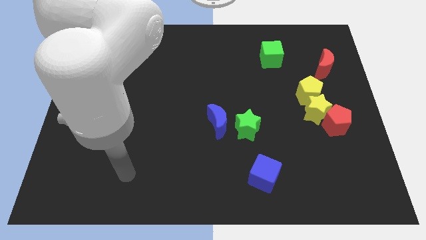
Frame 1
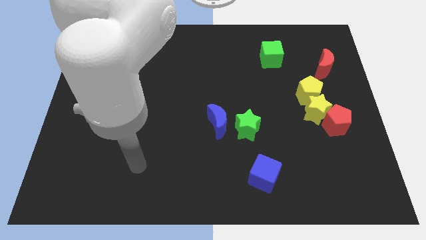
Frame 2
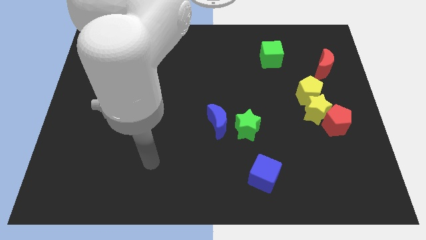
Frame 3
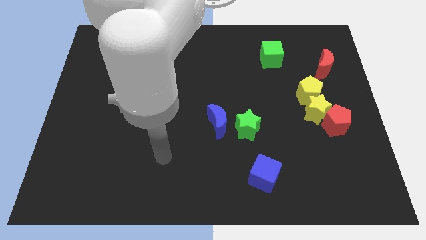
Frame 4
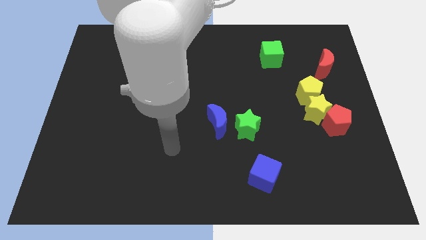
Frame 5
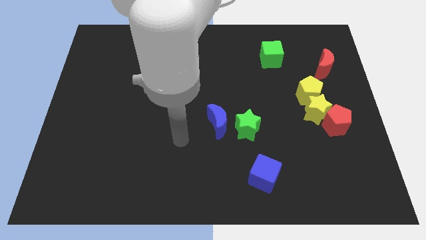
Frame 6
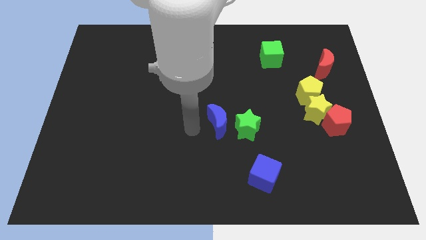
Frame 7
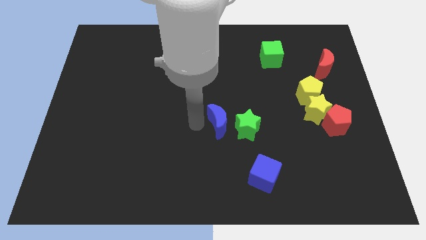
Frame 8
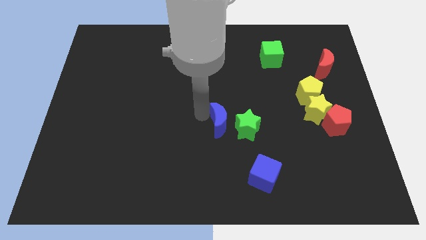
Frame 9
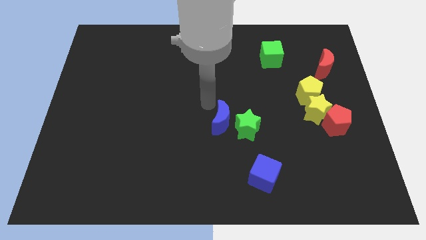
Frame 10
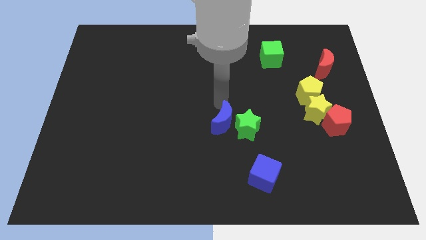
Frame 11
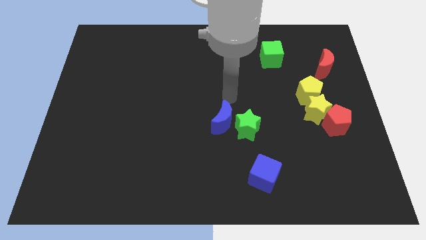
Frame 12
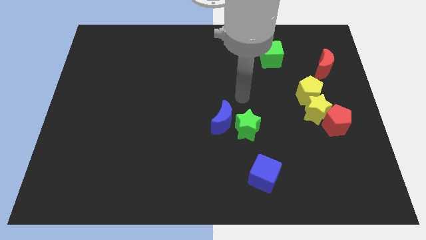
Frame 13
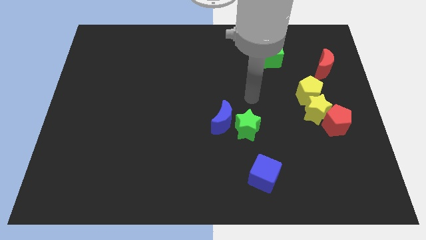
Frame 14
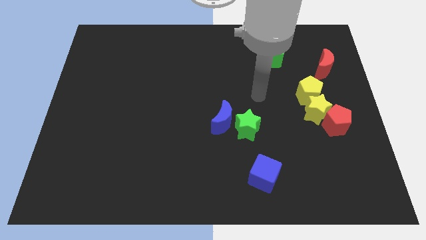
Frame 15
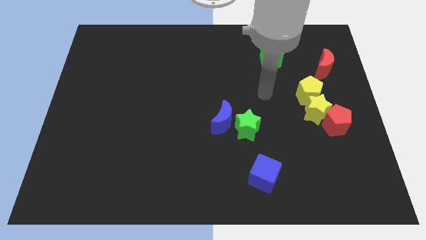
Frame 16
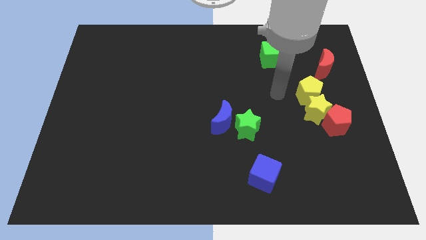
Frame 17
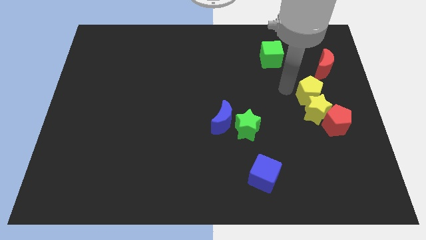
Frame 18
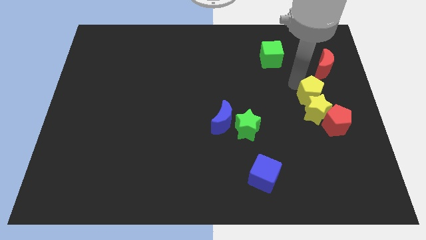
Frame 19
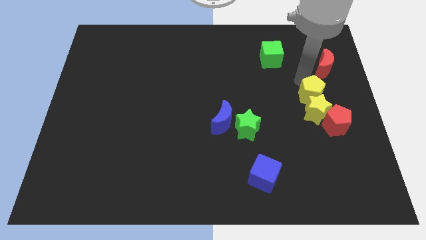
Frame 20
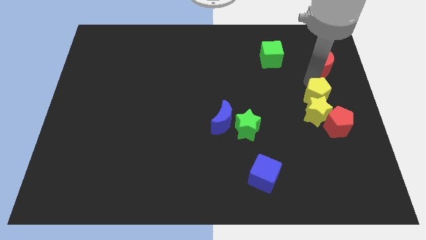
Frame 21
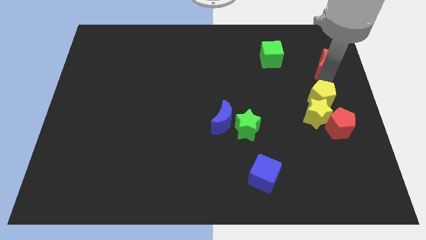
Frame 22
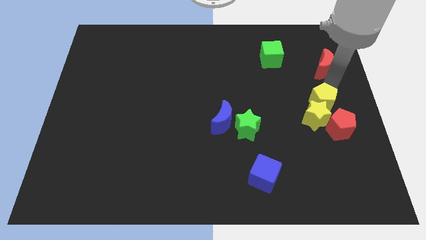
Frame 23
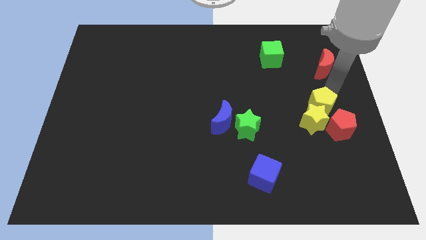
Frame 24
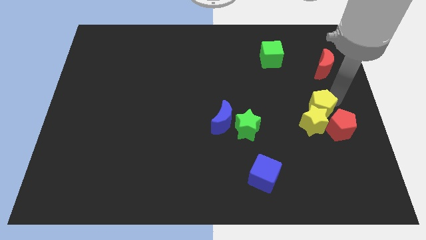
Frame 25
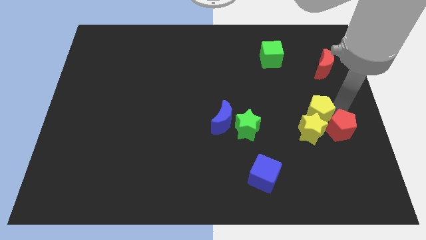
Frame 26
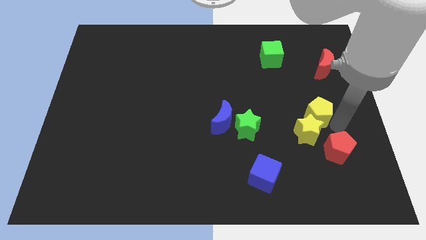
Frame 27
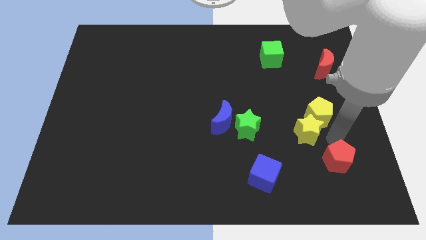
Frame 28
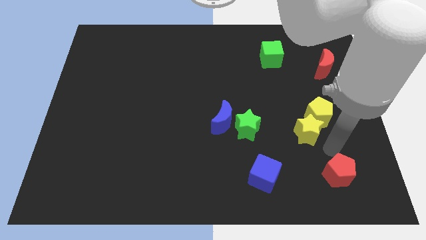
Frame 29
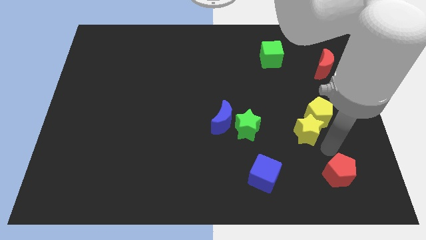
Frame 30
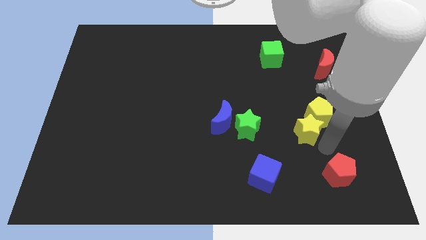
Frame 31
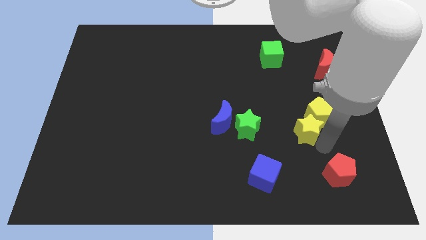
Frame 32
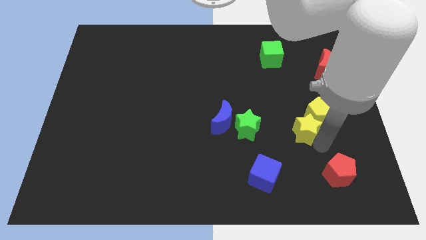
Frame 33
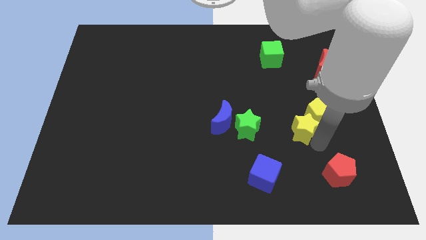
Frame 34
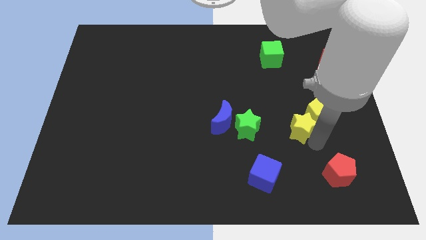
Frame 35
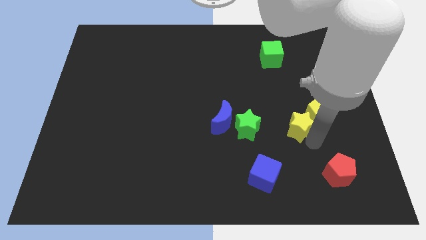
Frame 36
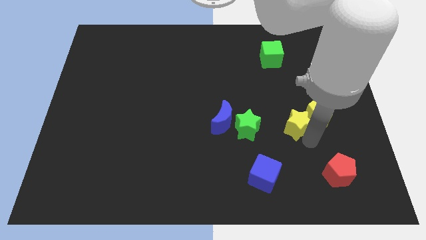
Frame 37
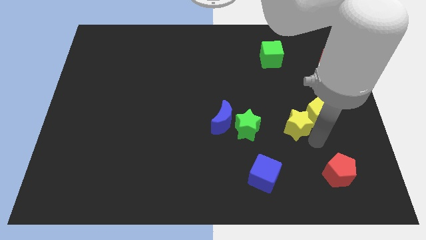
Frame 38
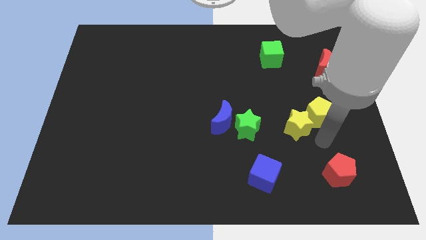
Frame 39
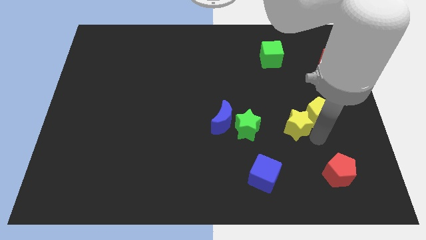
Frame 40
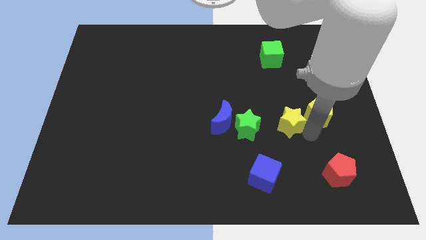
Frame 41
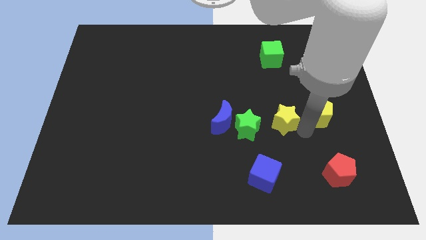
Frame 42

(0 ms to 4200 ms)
pull the yellow star apart from the yellow pentagon and red pentagon

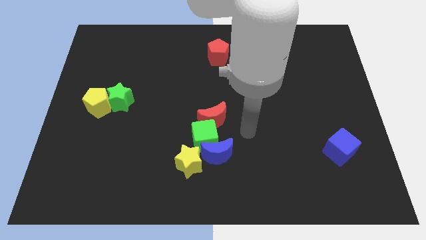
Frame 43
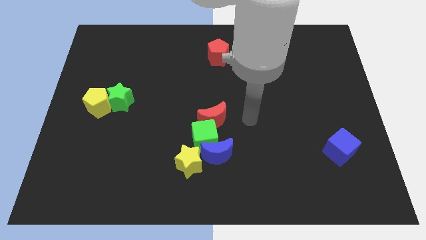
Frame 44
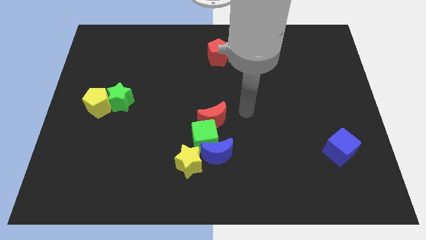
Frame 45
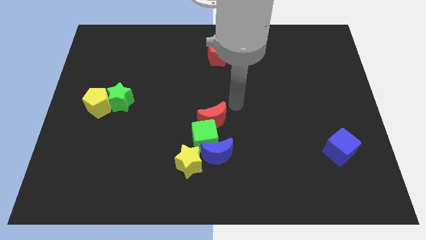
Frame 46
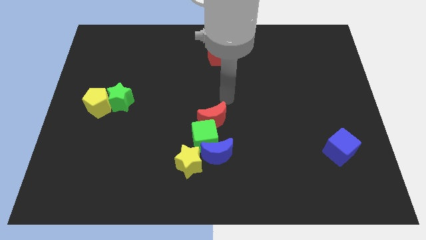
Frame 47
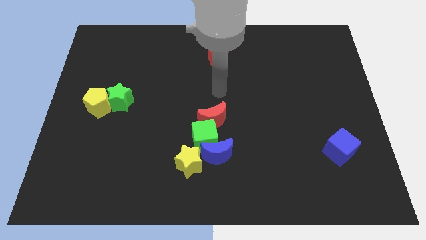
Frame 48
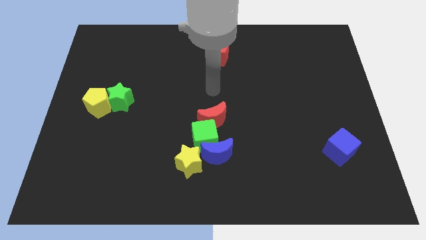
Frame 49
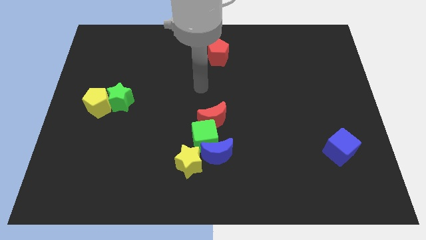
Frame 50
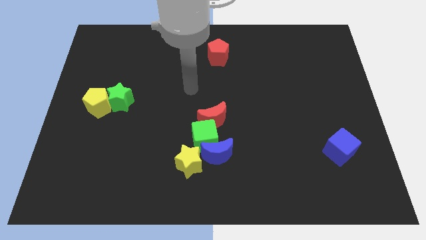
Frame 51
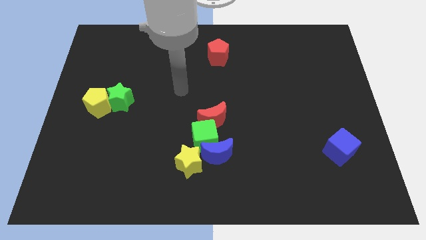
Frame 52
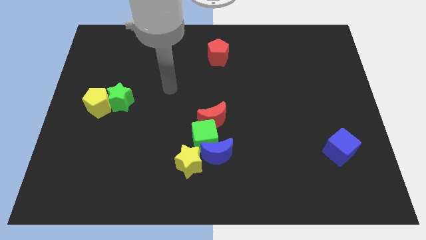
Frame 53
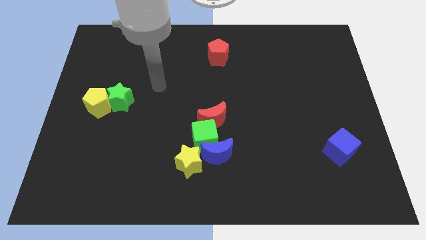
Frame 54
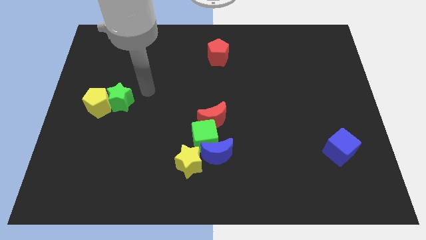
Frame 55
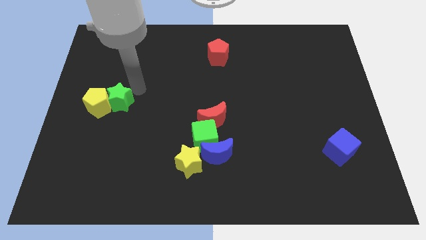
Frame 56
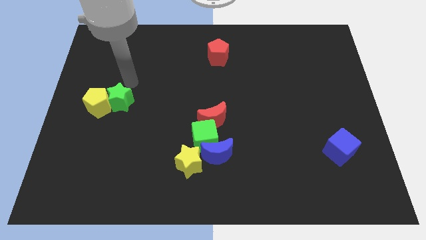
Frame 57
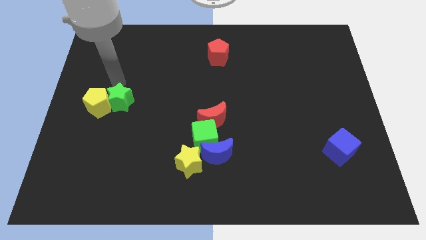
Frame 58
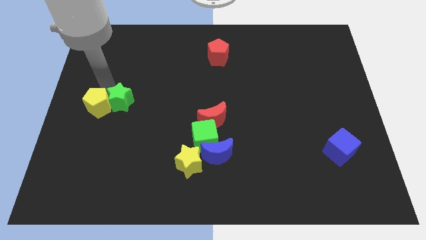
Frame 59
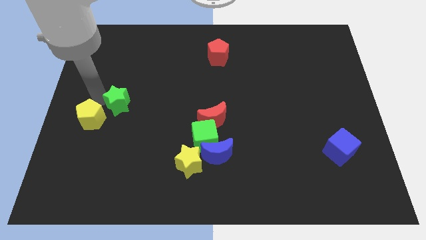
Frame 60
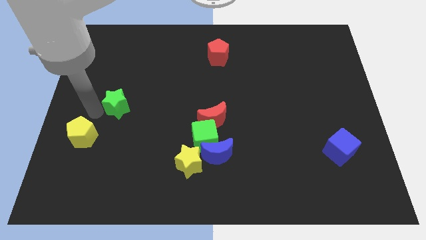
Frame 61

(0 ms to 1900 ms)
move the green star away from the yellow pentagon

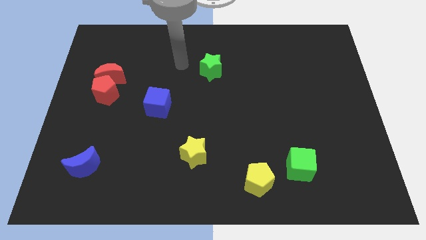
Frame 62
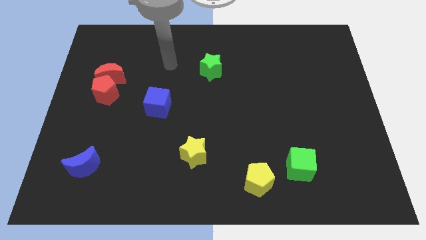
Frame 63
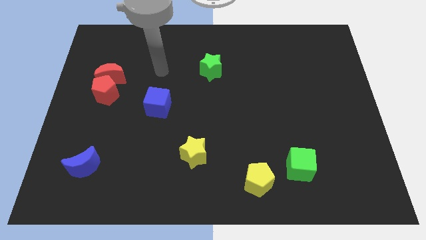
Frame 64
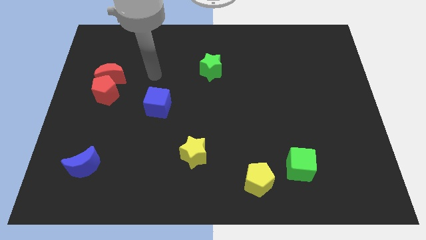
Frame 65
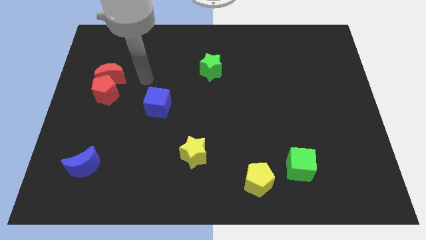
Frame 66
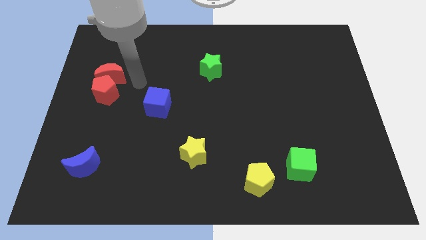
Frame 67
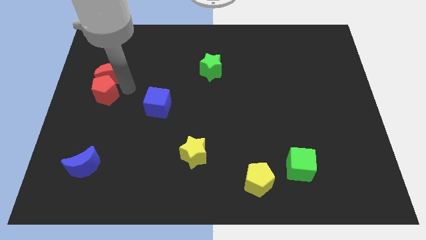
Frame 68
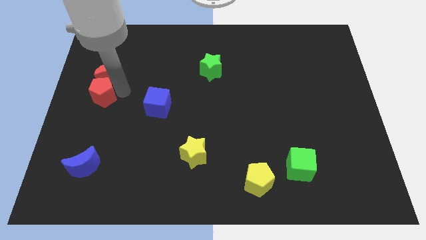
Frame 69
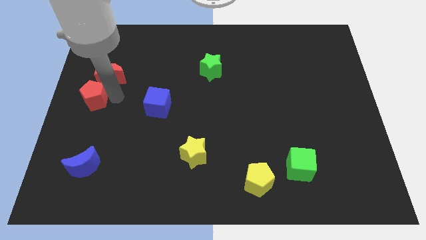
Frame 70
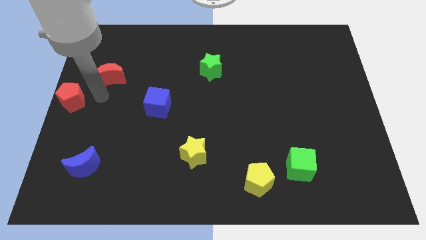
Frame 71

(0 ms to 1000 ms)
pull the red moon apart from the red pentagon

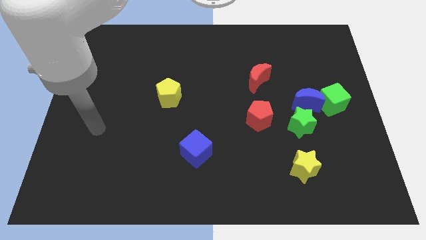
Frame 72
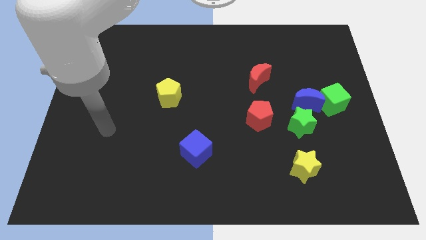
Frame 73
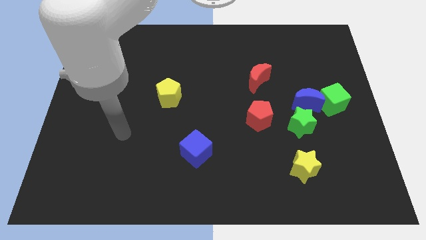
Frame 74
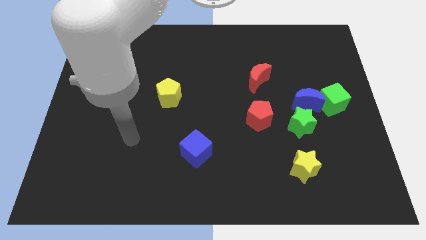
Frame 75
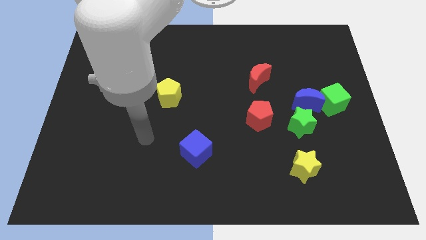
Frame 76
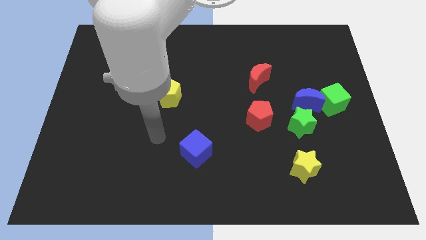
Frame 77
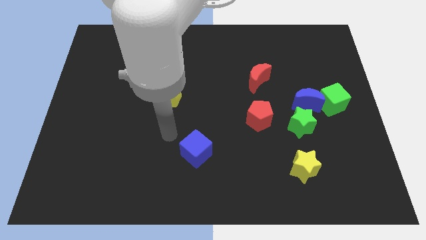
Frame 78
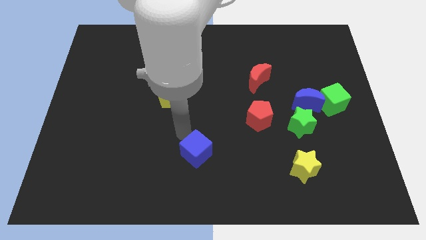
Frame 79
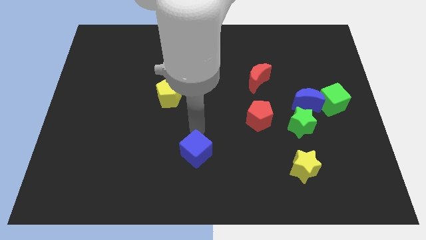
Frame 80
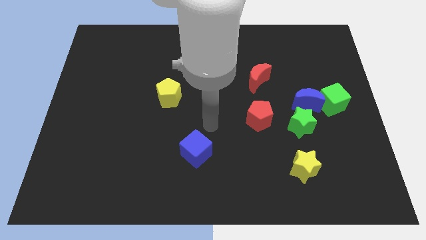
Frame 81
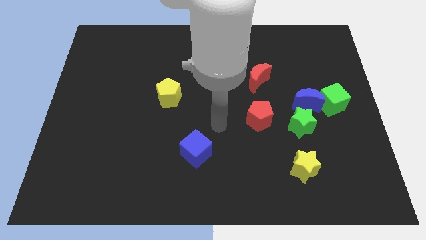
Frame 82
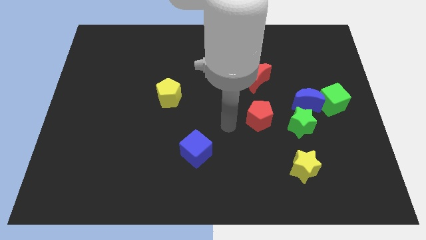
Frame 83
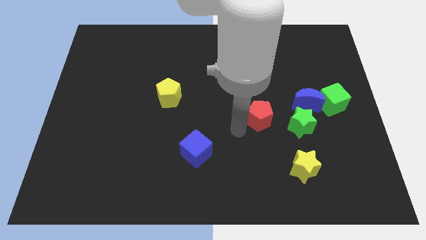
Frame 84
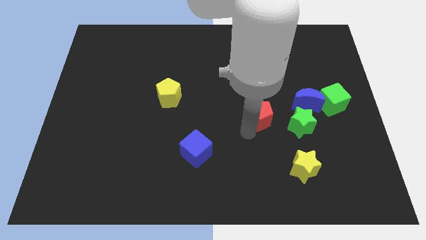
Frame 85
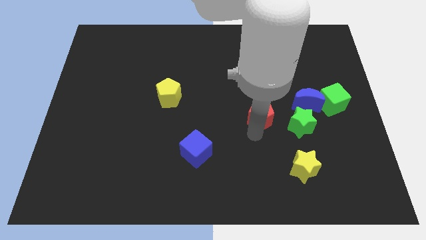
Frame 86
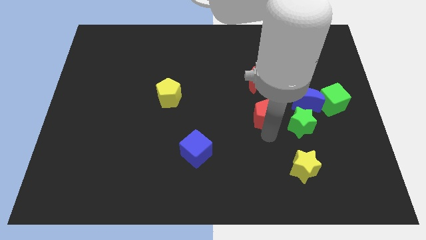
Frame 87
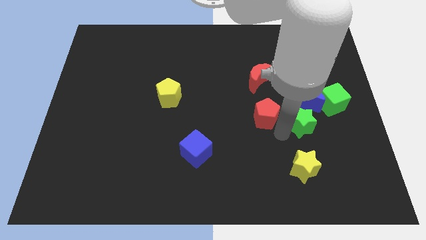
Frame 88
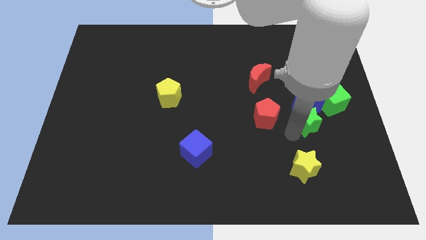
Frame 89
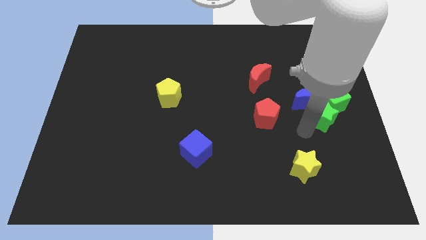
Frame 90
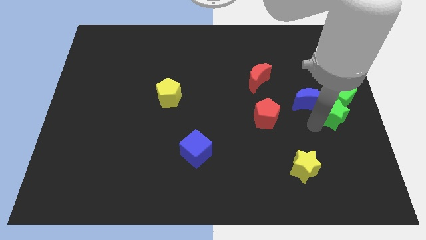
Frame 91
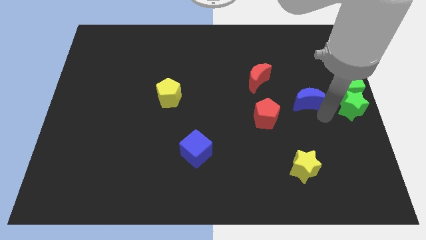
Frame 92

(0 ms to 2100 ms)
pull the blue moon apart from the green cube and green star
